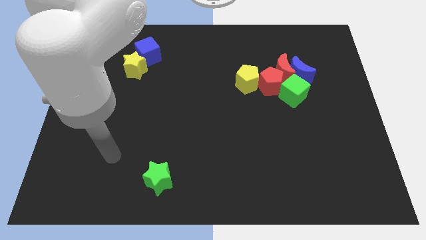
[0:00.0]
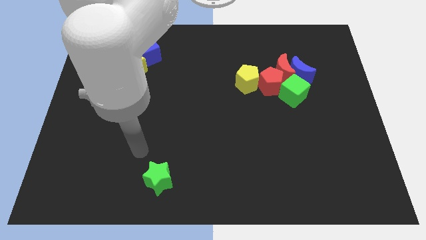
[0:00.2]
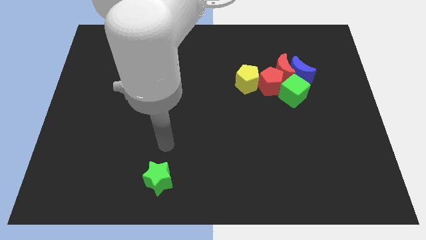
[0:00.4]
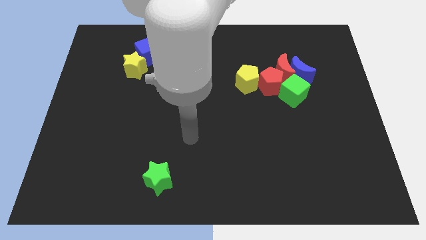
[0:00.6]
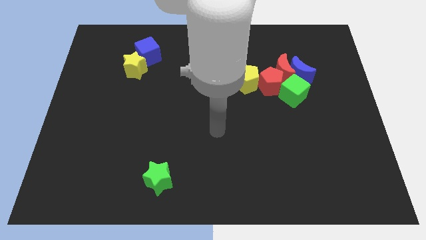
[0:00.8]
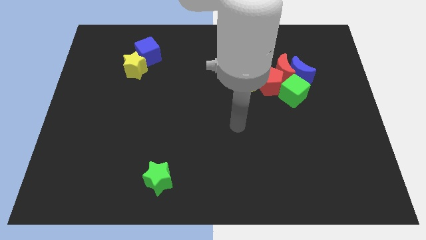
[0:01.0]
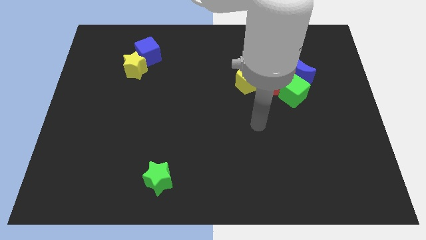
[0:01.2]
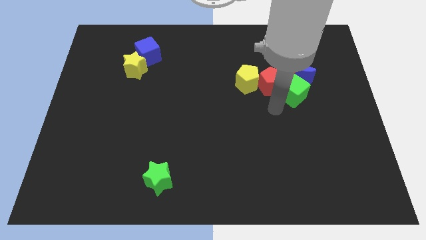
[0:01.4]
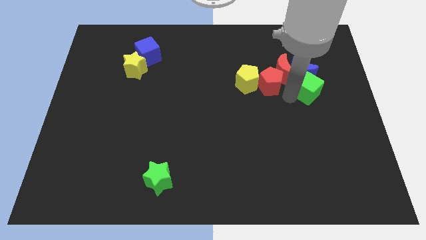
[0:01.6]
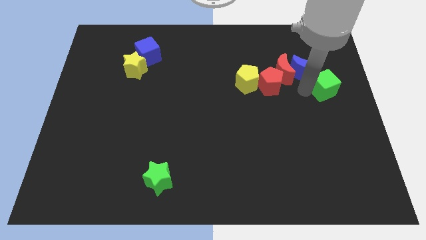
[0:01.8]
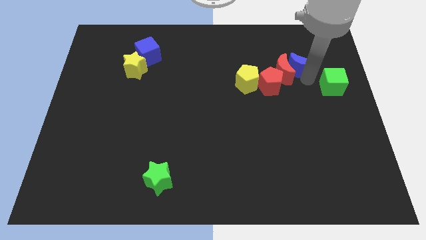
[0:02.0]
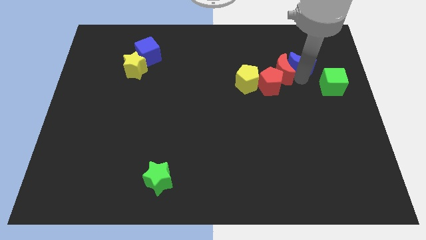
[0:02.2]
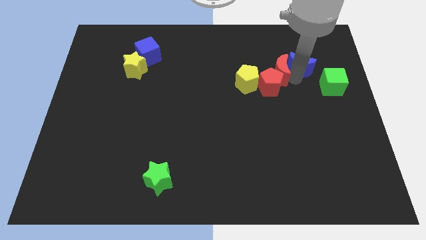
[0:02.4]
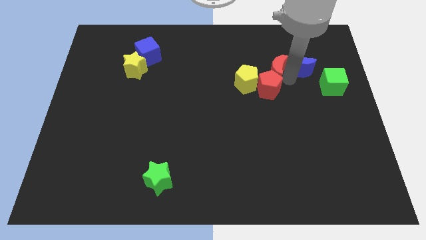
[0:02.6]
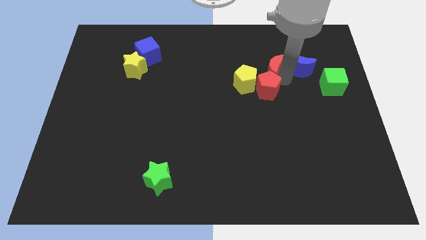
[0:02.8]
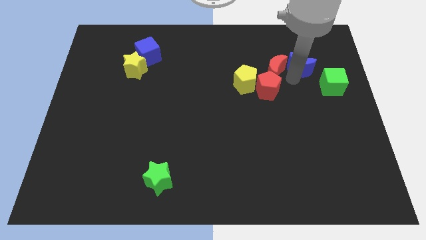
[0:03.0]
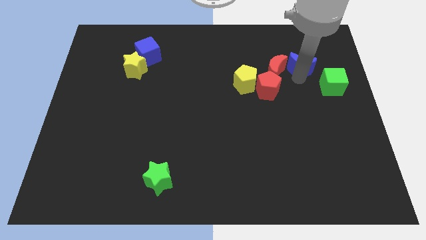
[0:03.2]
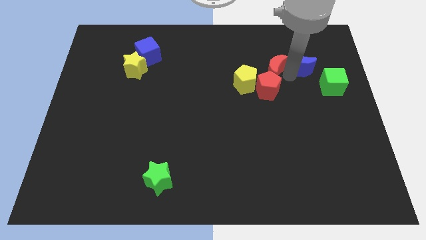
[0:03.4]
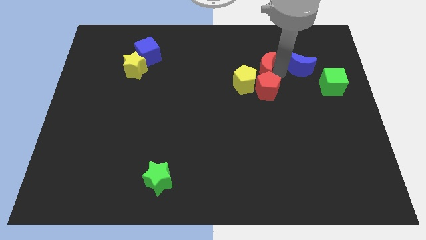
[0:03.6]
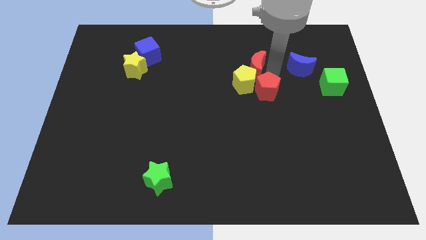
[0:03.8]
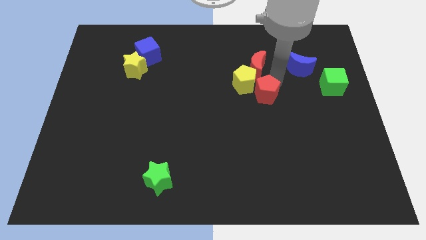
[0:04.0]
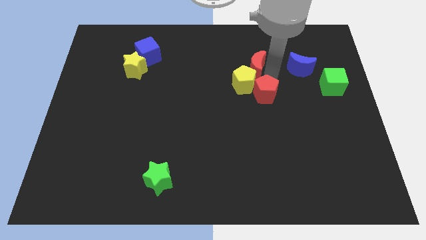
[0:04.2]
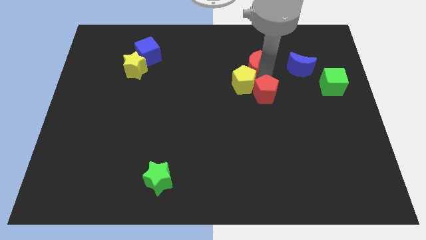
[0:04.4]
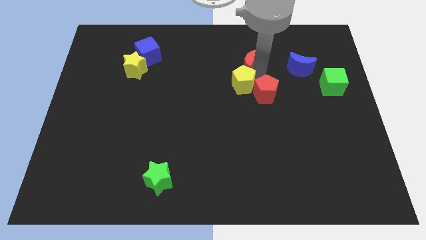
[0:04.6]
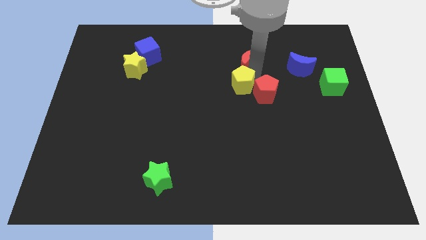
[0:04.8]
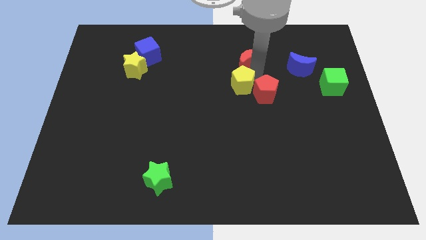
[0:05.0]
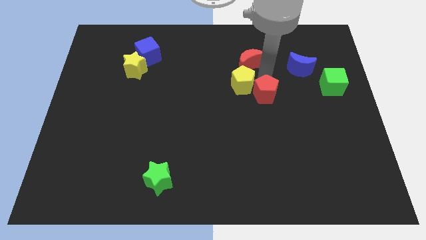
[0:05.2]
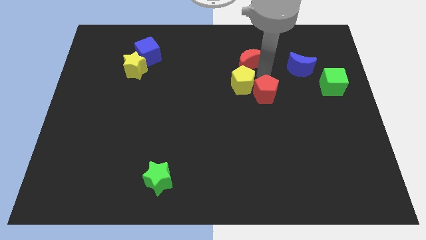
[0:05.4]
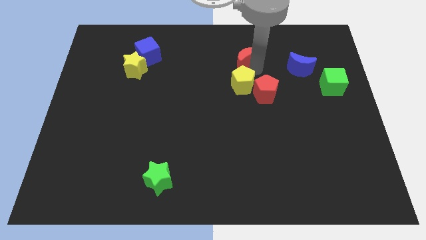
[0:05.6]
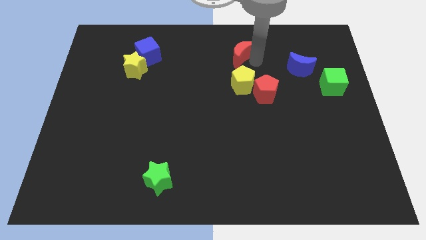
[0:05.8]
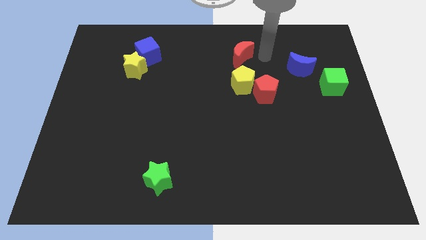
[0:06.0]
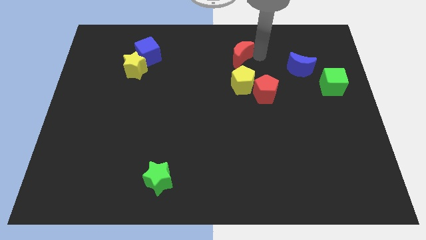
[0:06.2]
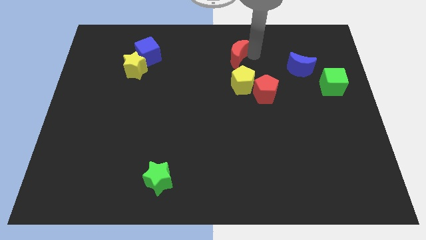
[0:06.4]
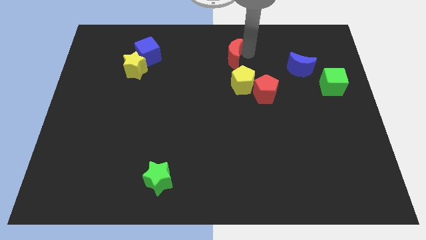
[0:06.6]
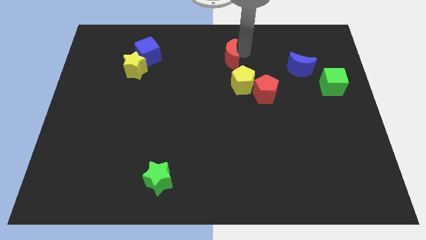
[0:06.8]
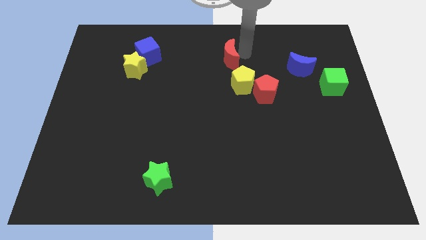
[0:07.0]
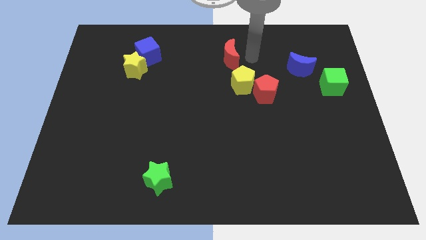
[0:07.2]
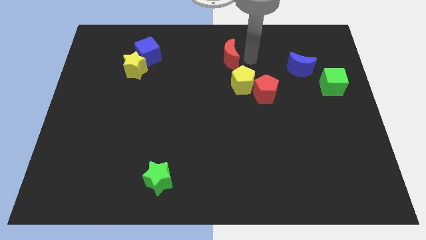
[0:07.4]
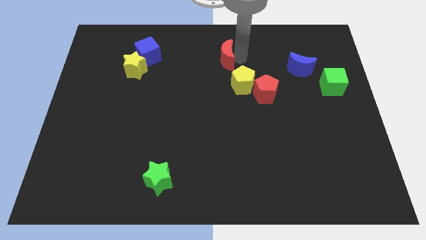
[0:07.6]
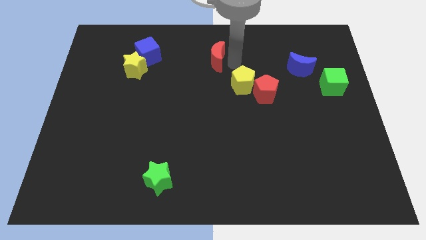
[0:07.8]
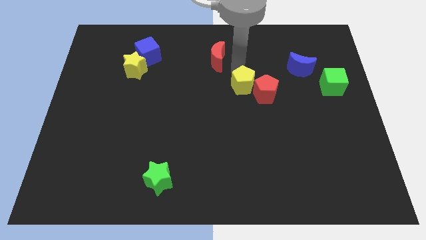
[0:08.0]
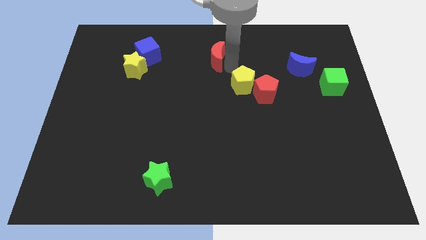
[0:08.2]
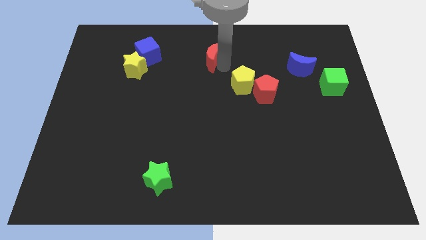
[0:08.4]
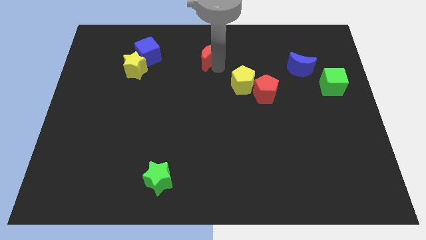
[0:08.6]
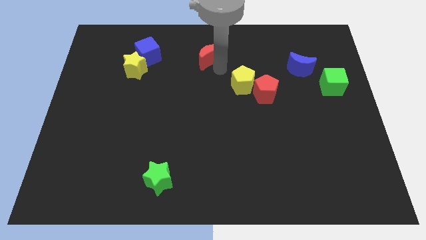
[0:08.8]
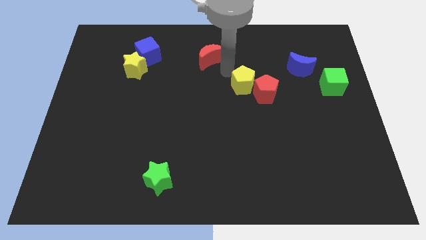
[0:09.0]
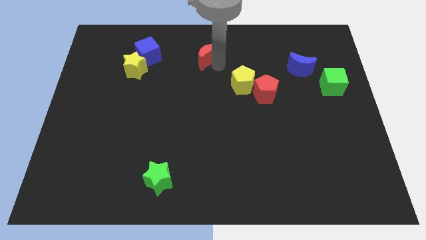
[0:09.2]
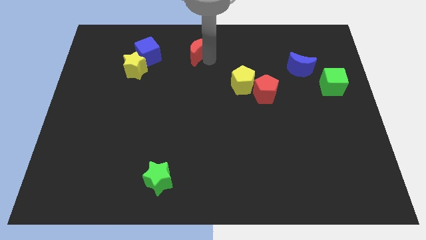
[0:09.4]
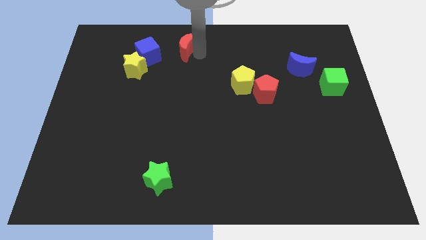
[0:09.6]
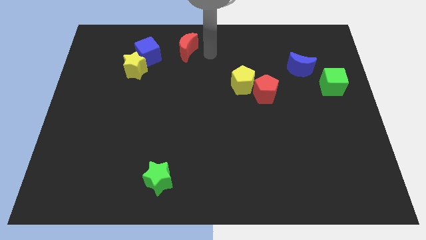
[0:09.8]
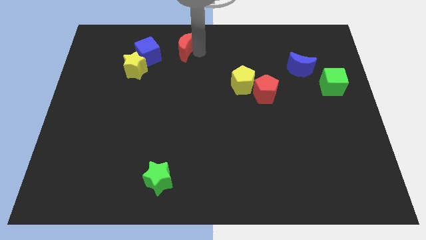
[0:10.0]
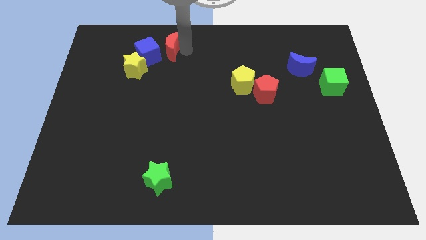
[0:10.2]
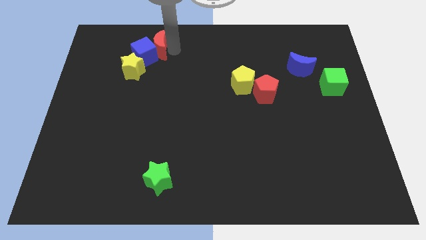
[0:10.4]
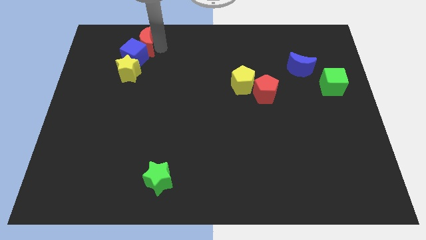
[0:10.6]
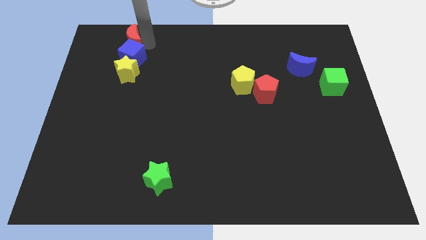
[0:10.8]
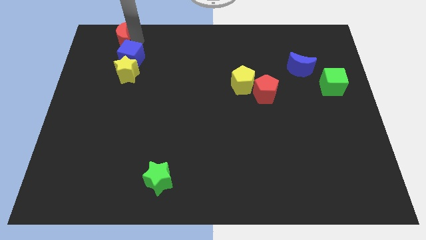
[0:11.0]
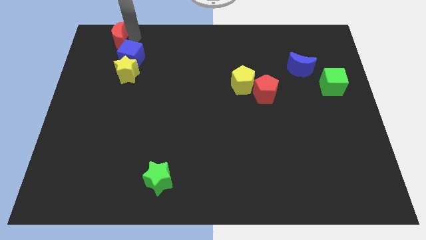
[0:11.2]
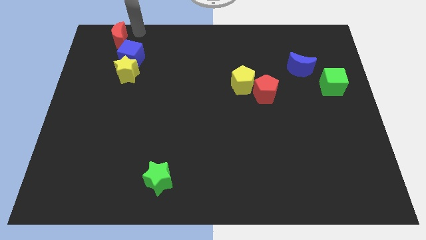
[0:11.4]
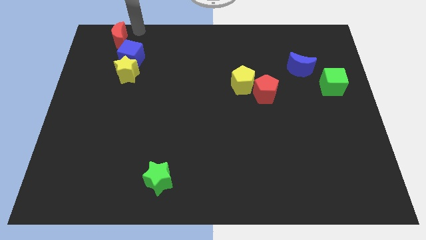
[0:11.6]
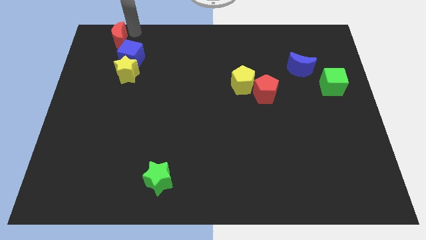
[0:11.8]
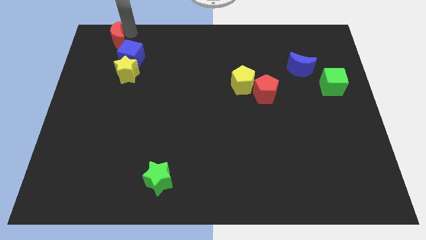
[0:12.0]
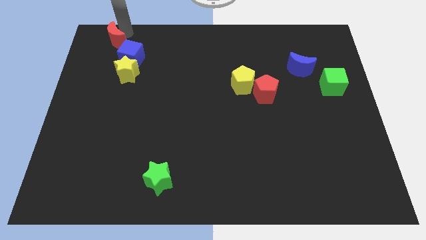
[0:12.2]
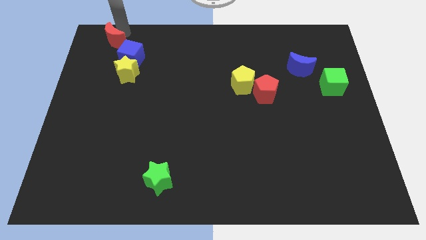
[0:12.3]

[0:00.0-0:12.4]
push the red moon to the top left

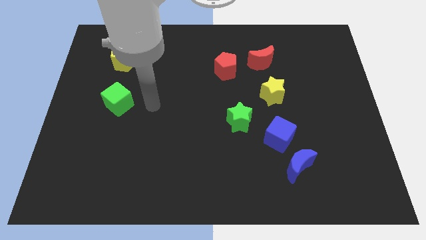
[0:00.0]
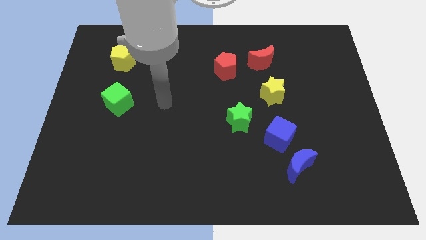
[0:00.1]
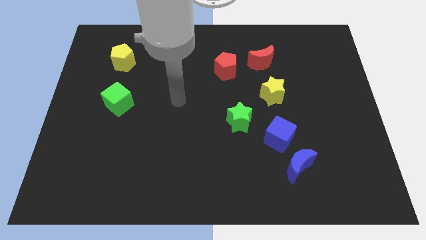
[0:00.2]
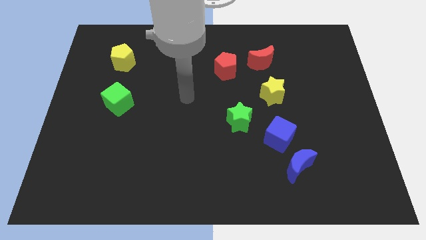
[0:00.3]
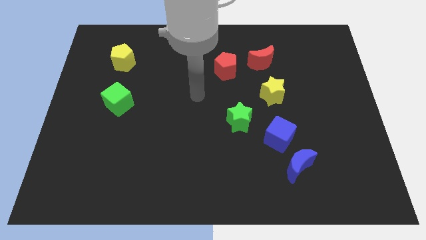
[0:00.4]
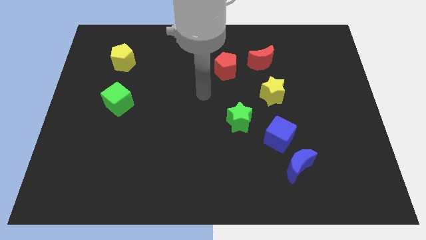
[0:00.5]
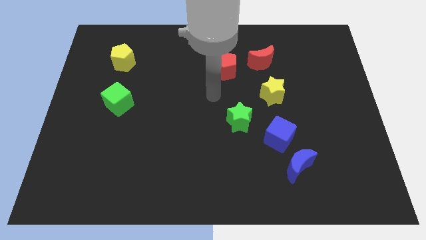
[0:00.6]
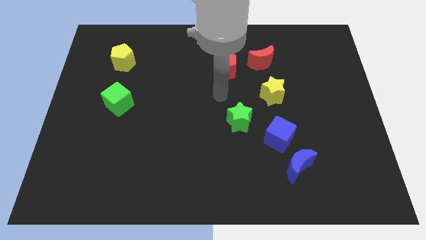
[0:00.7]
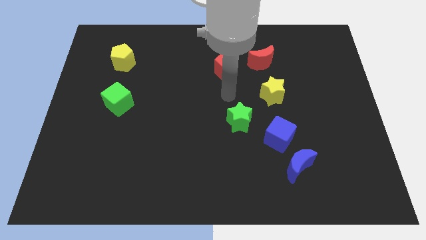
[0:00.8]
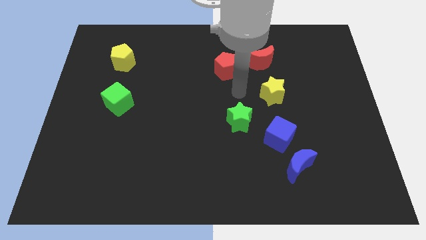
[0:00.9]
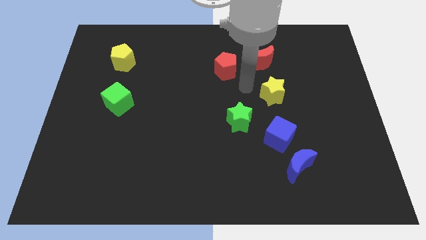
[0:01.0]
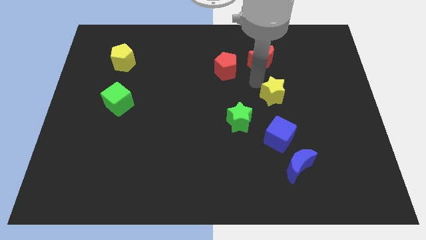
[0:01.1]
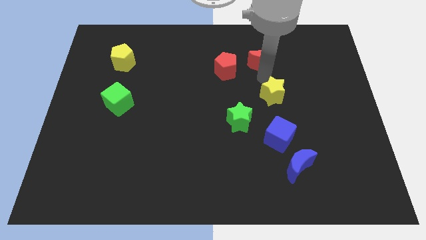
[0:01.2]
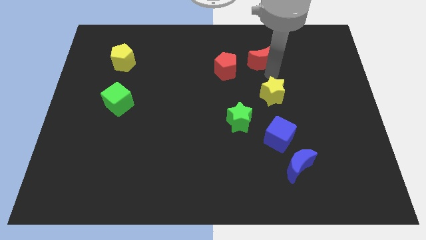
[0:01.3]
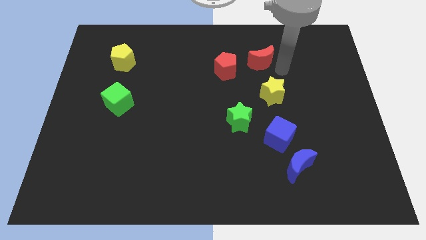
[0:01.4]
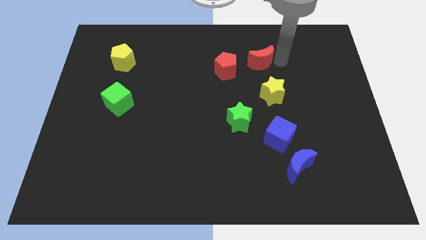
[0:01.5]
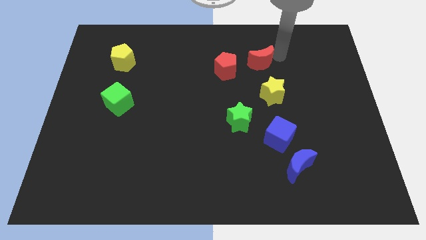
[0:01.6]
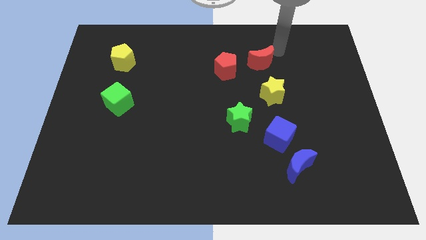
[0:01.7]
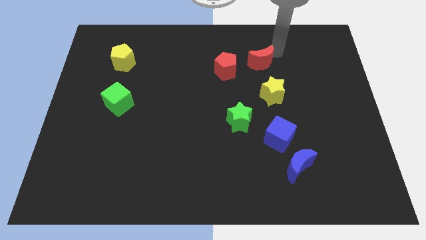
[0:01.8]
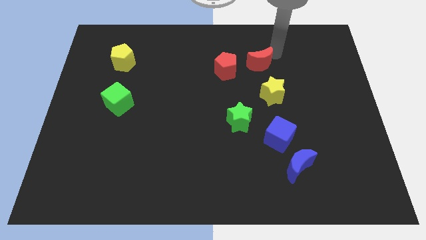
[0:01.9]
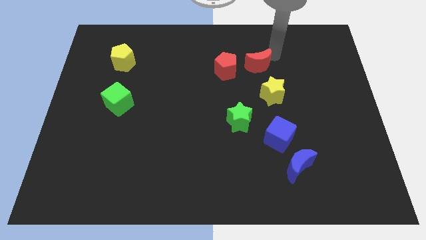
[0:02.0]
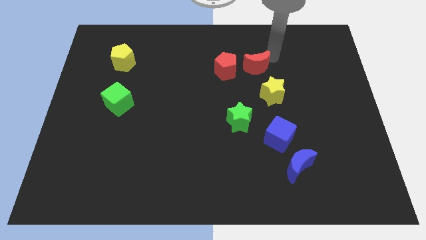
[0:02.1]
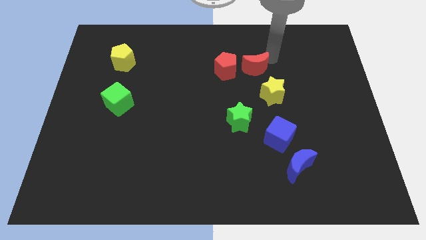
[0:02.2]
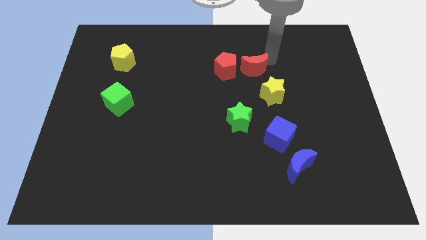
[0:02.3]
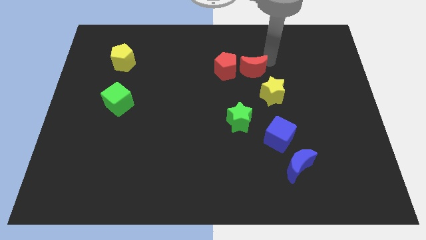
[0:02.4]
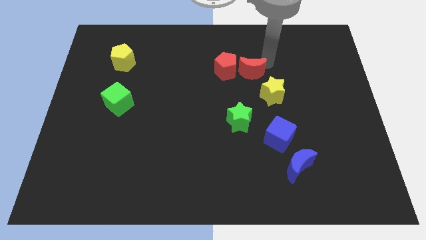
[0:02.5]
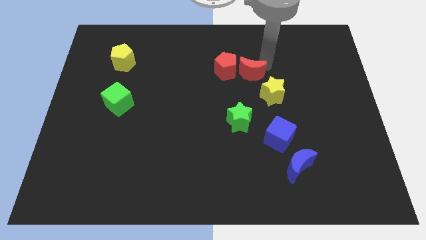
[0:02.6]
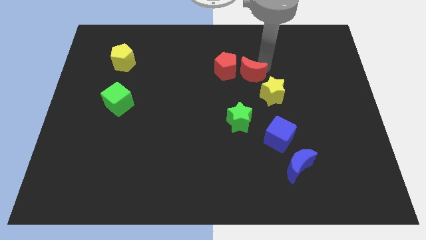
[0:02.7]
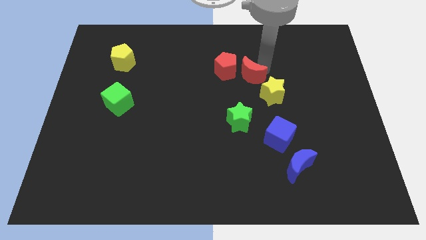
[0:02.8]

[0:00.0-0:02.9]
put the red moon to the middle of the board
